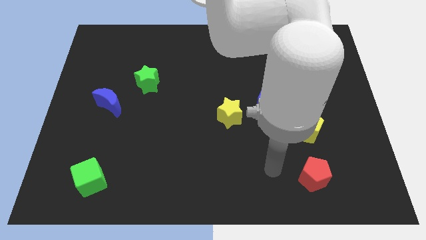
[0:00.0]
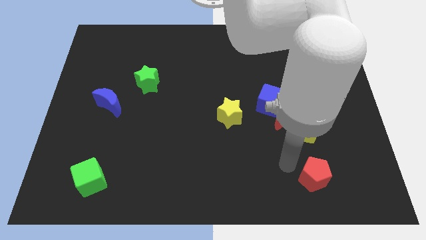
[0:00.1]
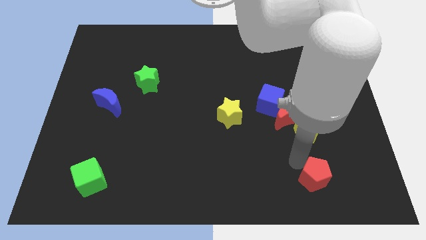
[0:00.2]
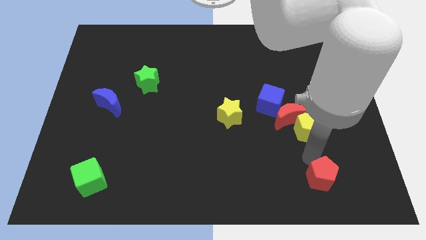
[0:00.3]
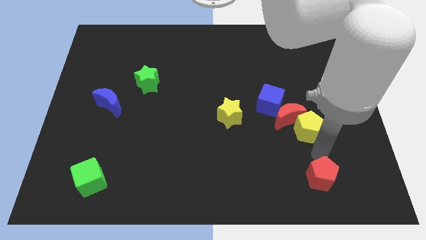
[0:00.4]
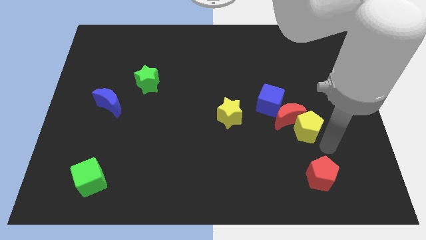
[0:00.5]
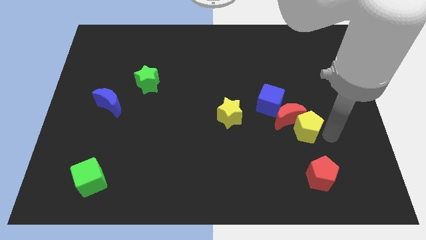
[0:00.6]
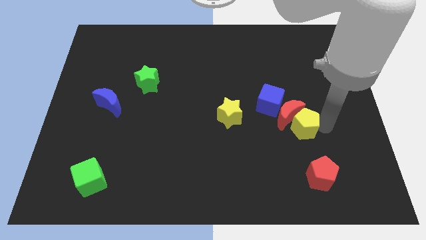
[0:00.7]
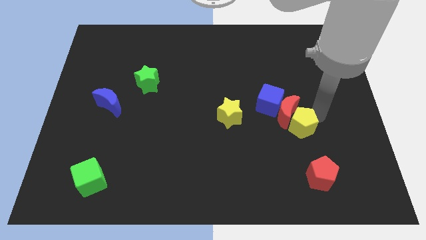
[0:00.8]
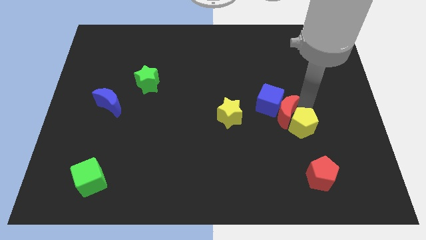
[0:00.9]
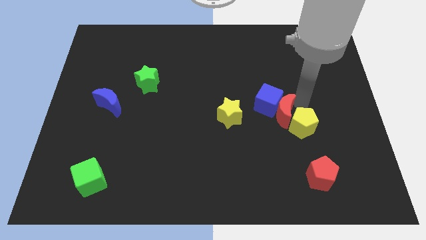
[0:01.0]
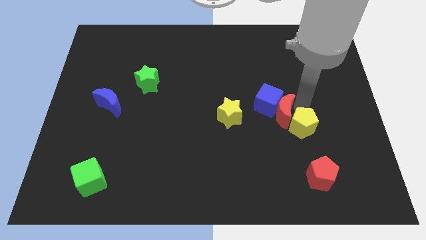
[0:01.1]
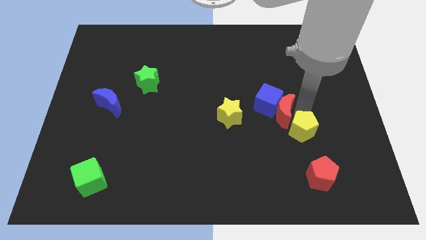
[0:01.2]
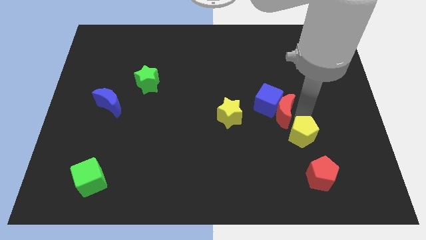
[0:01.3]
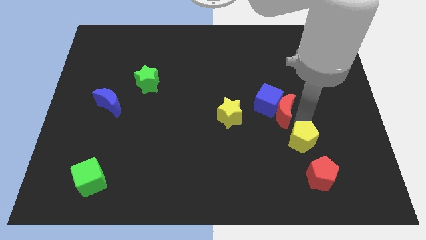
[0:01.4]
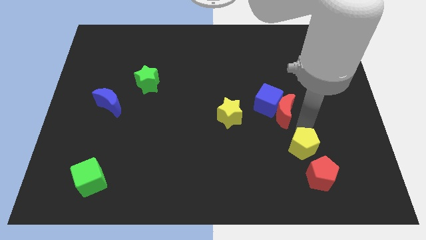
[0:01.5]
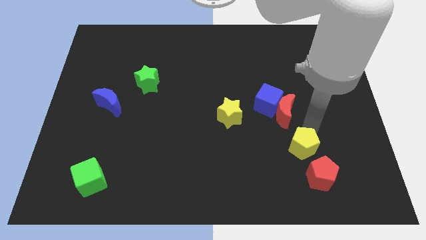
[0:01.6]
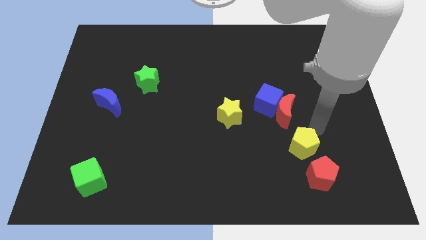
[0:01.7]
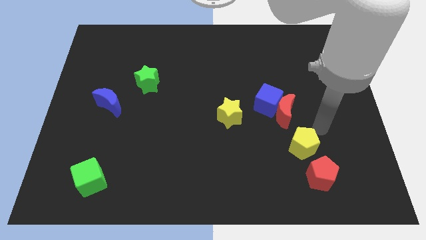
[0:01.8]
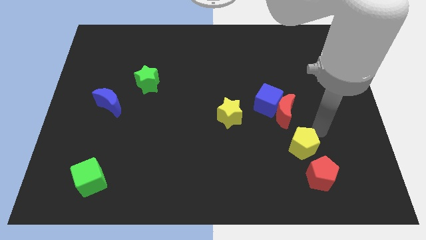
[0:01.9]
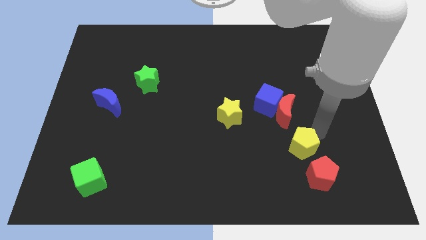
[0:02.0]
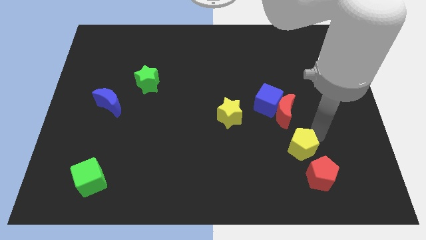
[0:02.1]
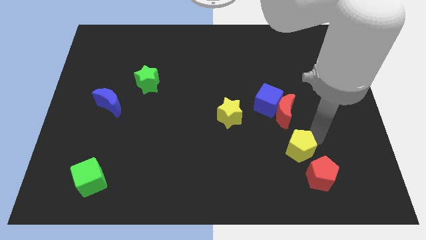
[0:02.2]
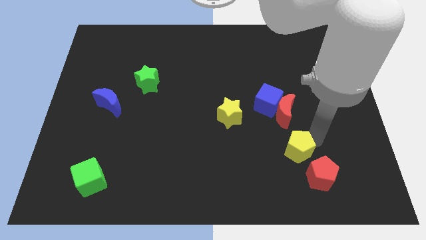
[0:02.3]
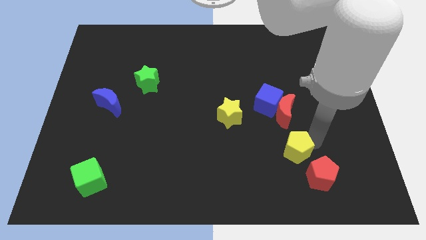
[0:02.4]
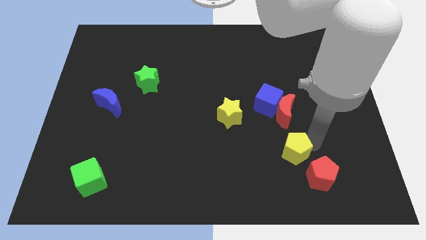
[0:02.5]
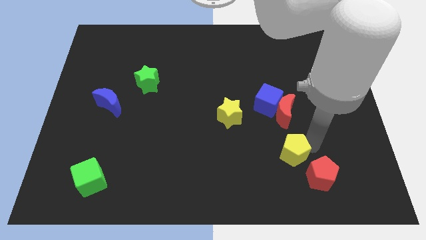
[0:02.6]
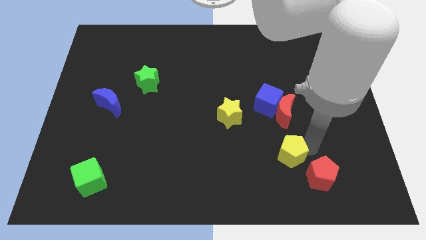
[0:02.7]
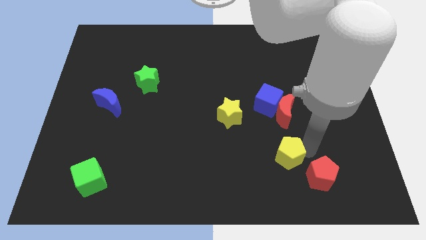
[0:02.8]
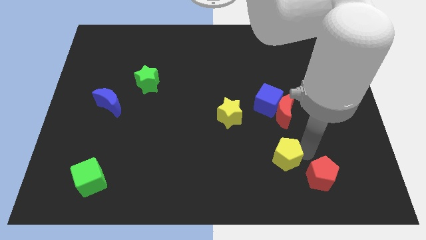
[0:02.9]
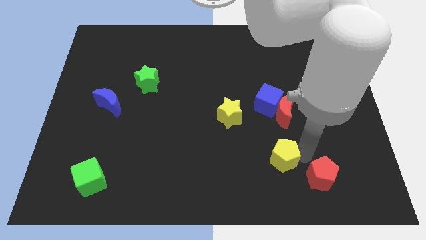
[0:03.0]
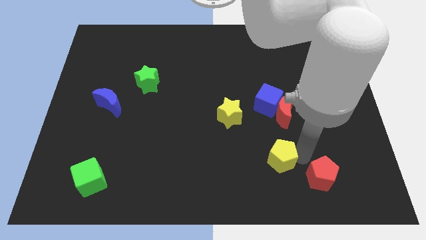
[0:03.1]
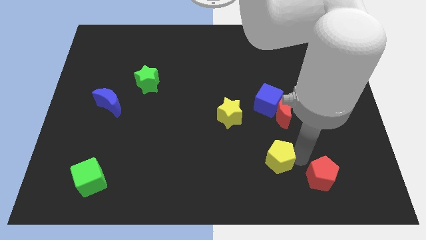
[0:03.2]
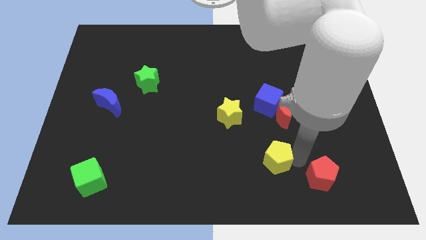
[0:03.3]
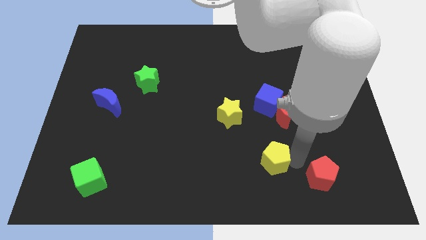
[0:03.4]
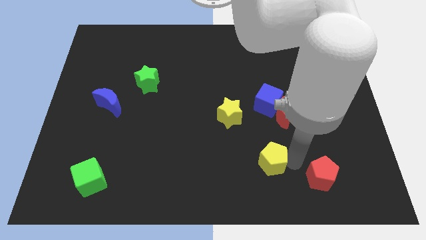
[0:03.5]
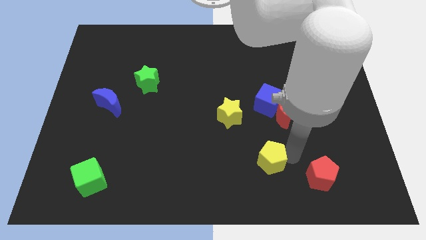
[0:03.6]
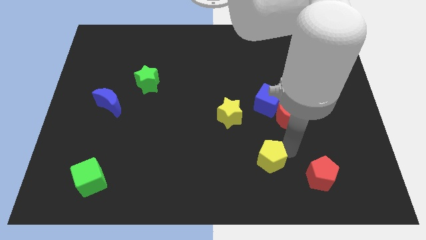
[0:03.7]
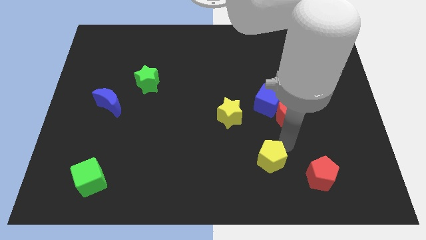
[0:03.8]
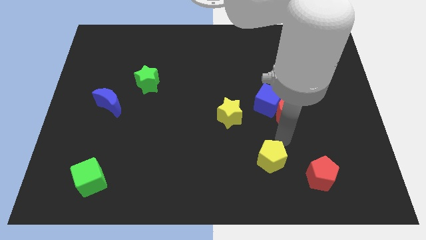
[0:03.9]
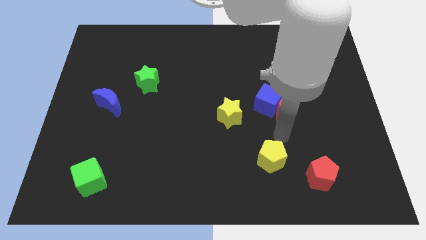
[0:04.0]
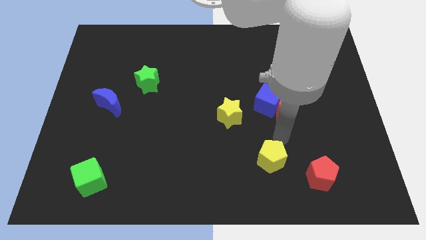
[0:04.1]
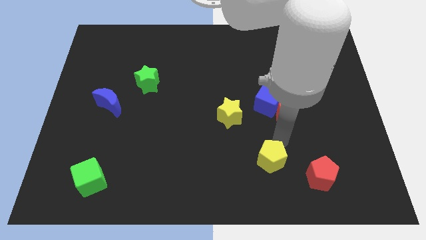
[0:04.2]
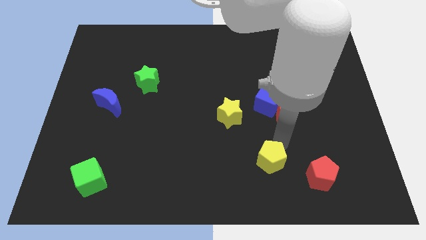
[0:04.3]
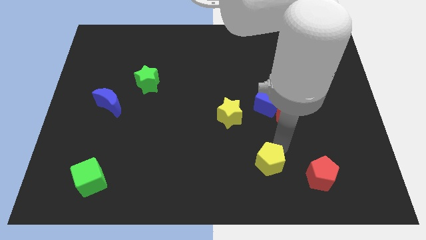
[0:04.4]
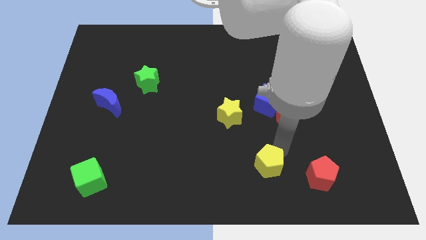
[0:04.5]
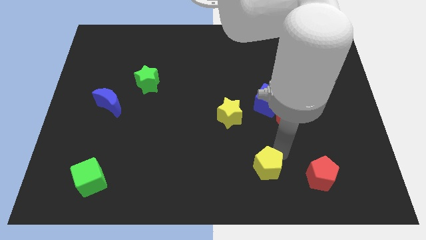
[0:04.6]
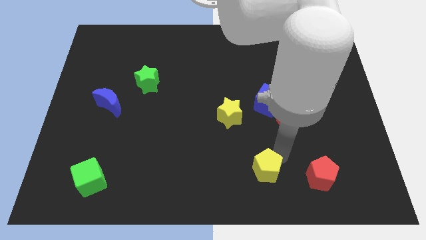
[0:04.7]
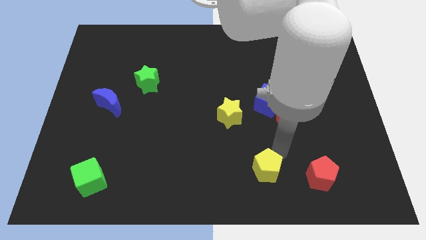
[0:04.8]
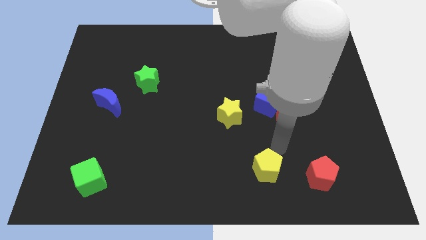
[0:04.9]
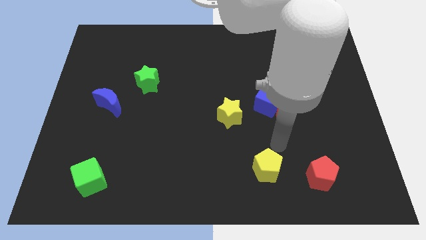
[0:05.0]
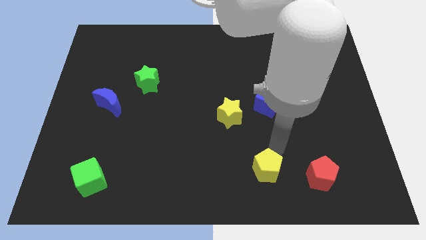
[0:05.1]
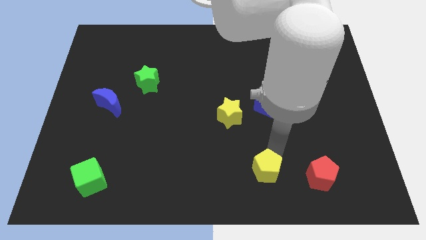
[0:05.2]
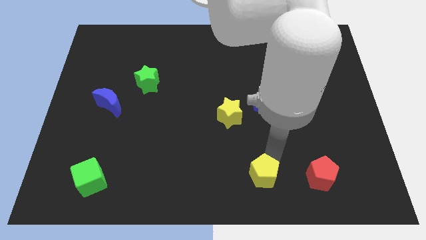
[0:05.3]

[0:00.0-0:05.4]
put the yellow pentagon to the bottom side

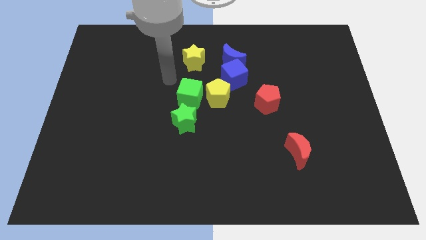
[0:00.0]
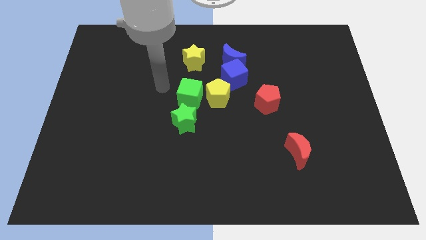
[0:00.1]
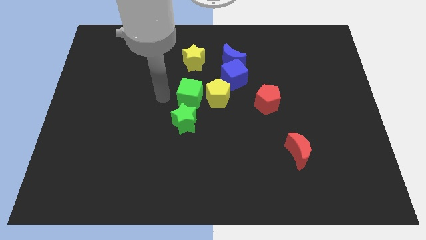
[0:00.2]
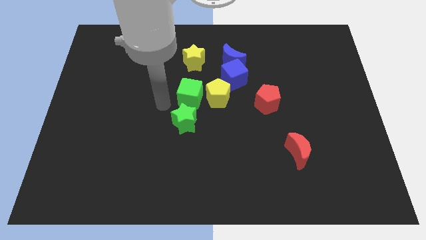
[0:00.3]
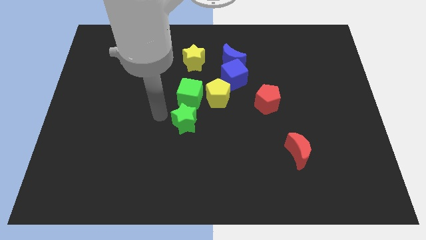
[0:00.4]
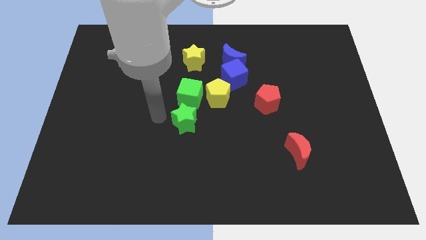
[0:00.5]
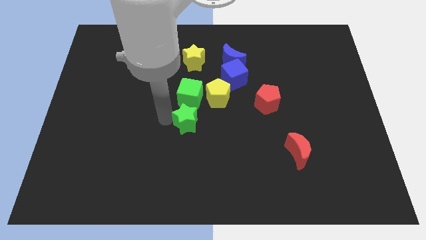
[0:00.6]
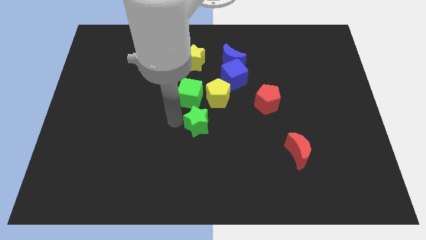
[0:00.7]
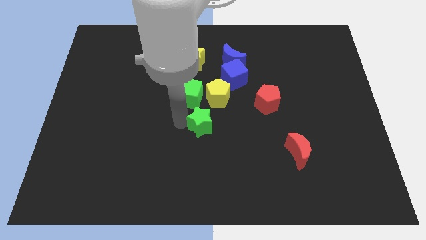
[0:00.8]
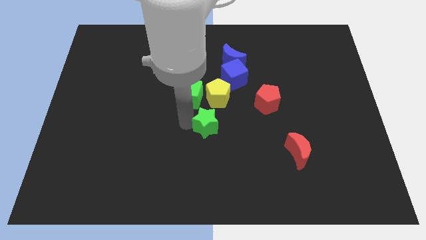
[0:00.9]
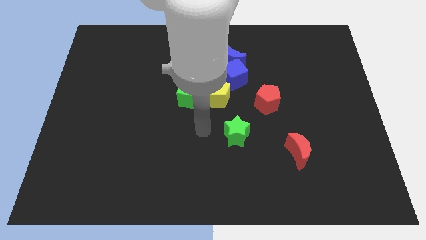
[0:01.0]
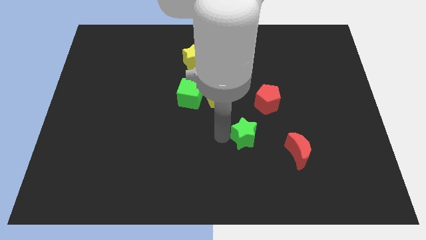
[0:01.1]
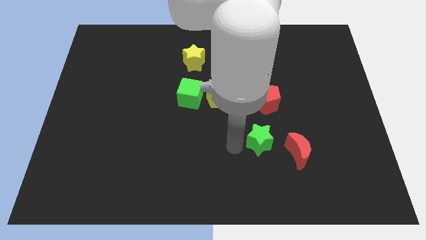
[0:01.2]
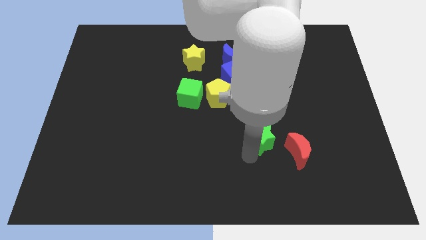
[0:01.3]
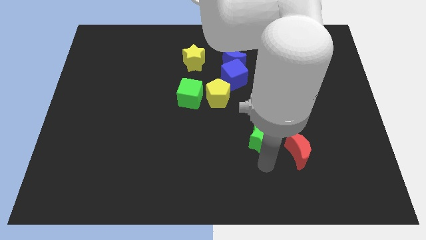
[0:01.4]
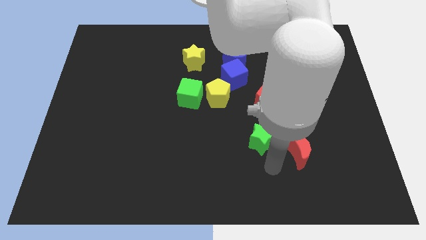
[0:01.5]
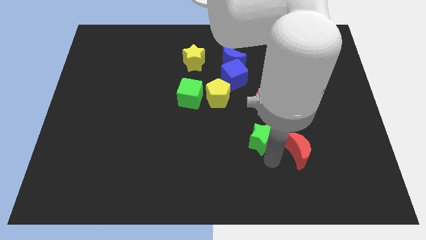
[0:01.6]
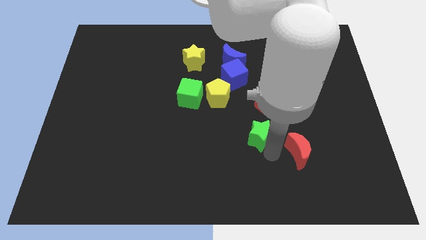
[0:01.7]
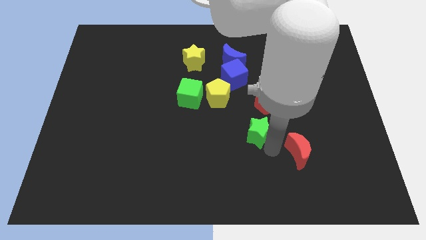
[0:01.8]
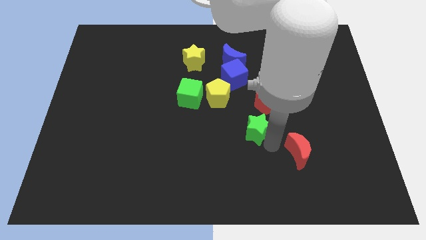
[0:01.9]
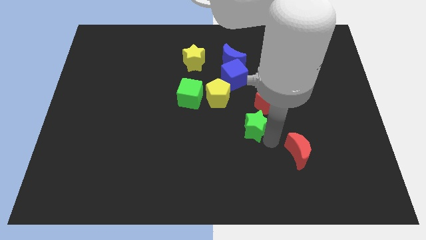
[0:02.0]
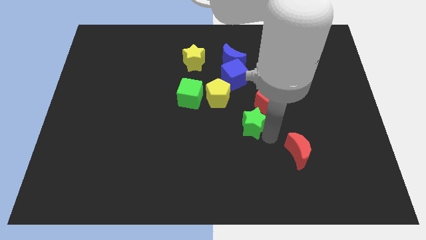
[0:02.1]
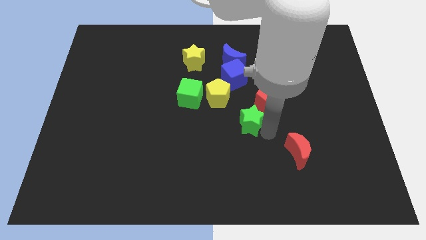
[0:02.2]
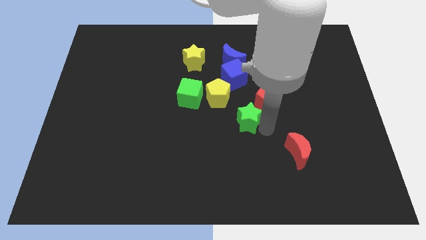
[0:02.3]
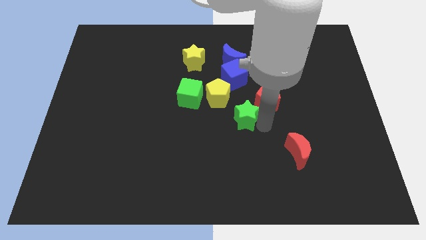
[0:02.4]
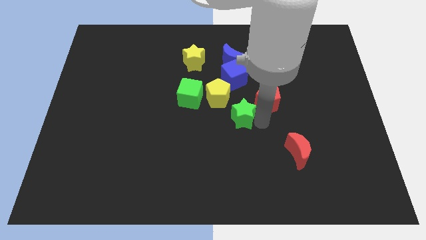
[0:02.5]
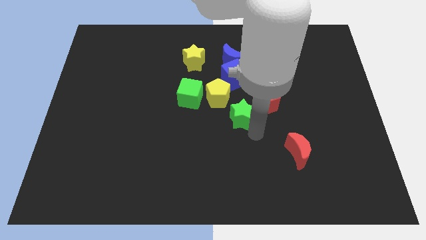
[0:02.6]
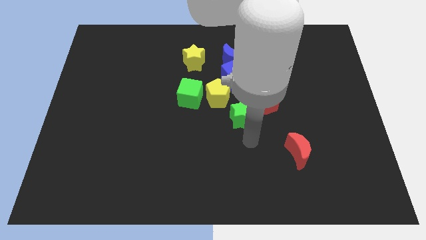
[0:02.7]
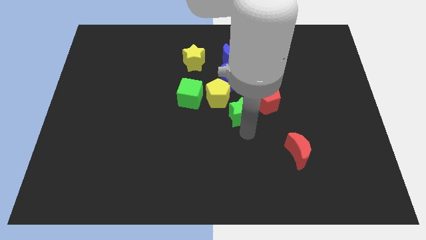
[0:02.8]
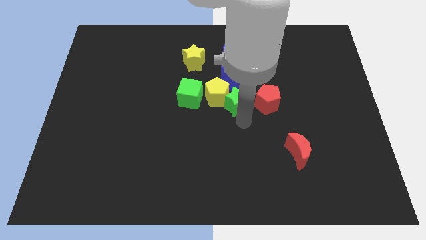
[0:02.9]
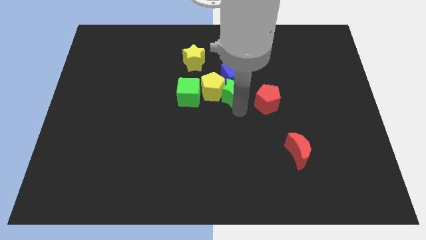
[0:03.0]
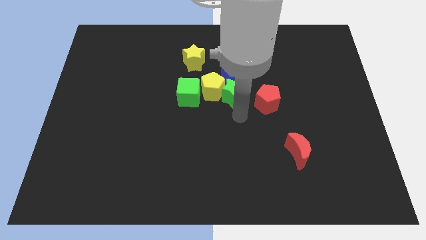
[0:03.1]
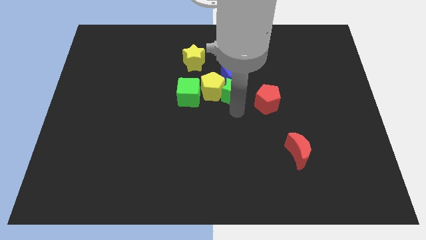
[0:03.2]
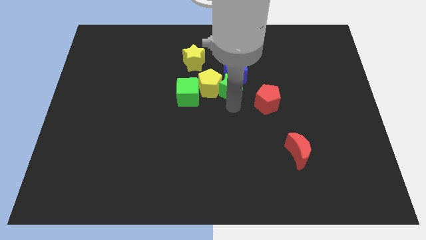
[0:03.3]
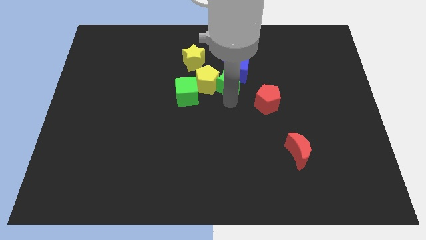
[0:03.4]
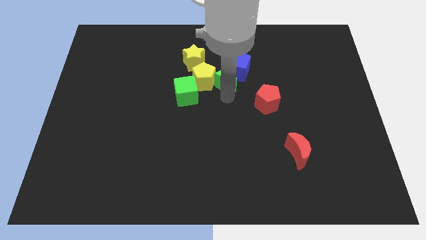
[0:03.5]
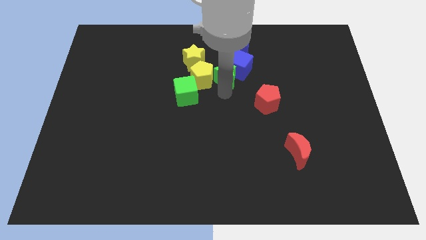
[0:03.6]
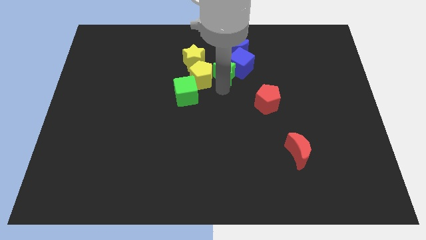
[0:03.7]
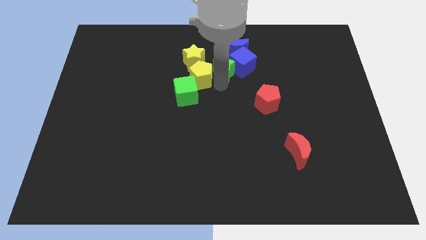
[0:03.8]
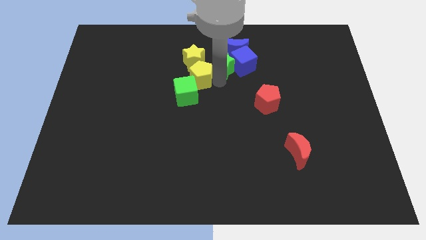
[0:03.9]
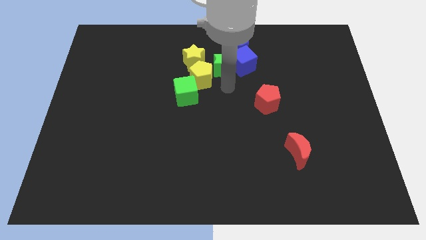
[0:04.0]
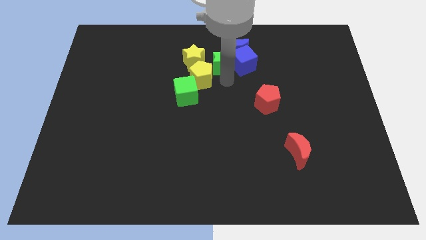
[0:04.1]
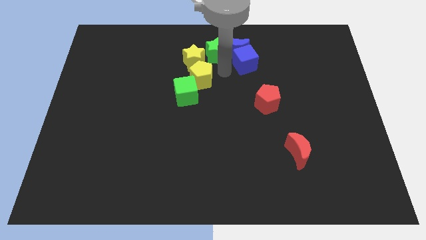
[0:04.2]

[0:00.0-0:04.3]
slide the green star to the towards your base
